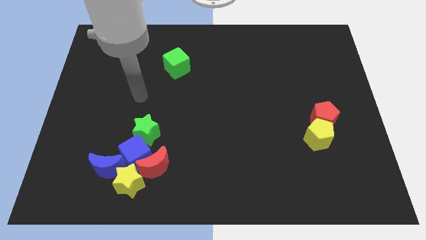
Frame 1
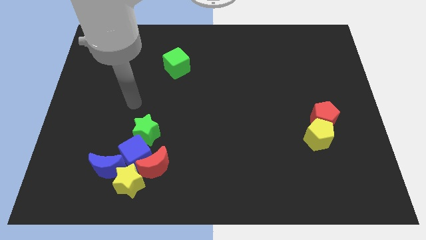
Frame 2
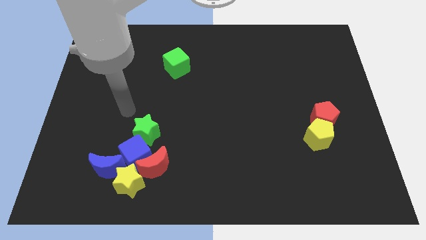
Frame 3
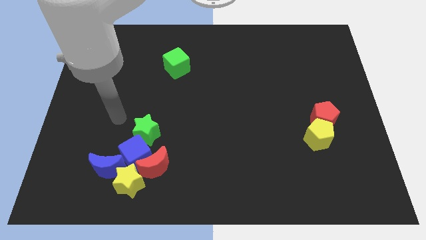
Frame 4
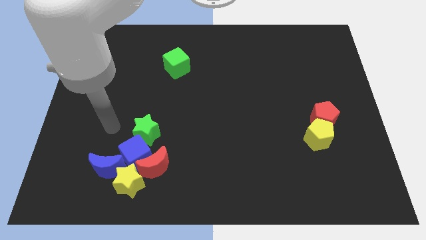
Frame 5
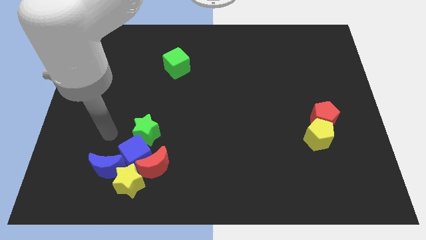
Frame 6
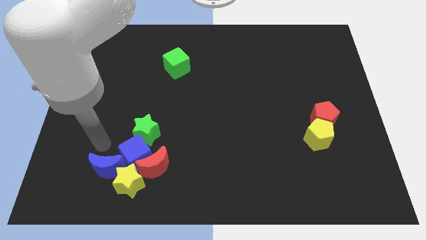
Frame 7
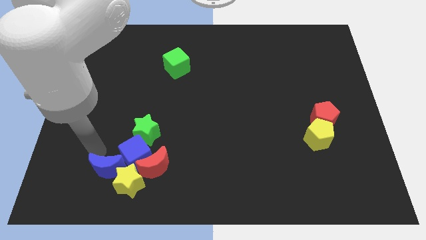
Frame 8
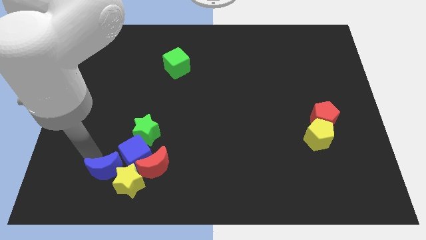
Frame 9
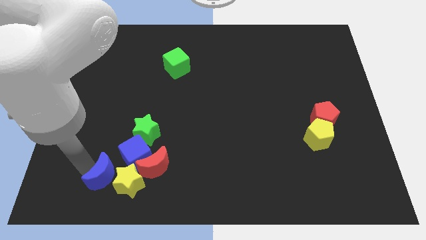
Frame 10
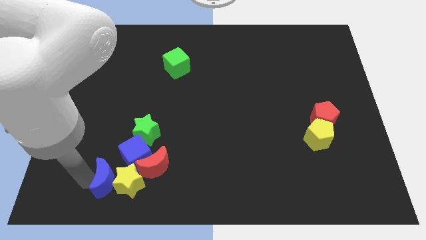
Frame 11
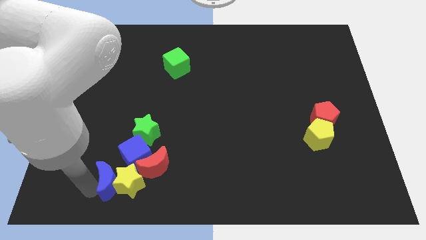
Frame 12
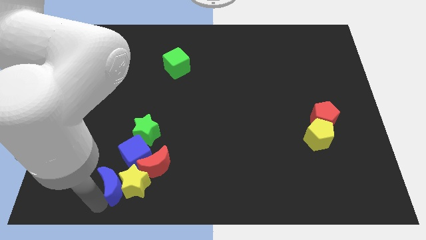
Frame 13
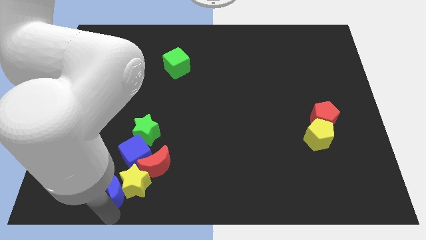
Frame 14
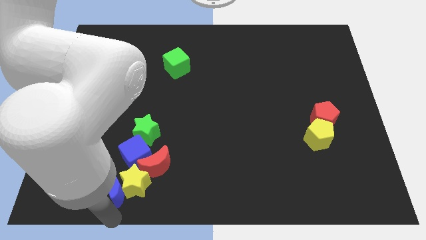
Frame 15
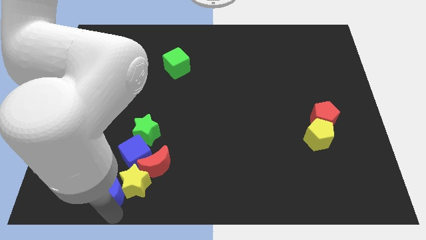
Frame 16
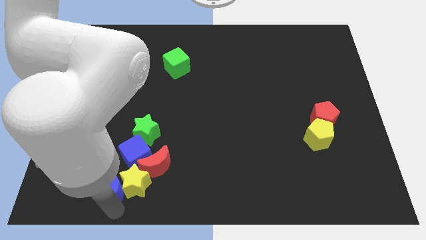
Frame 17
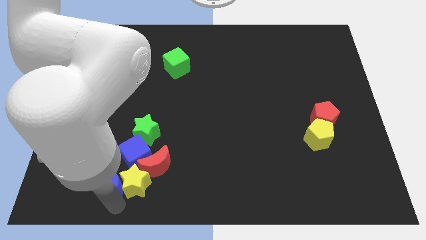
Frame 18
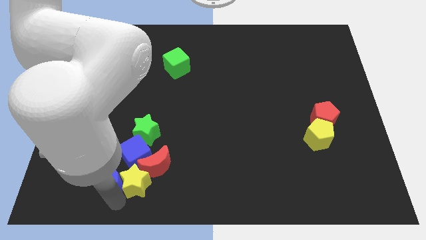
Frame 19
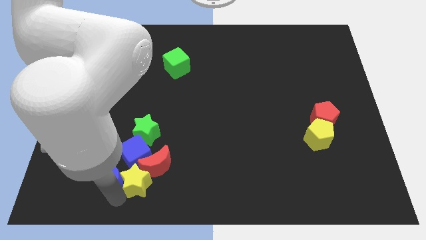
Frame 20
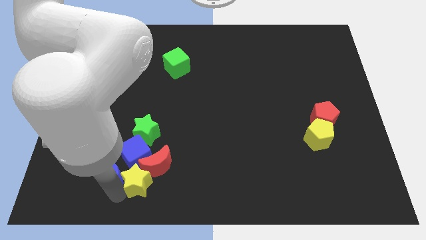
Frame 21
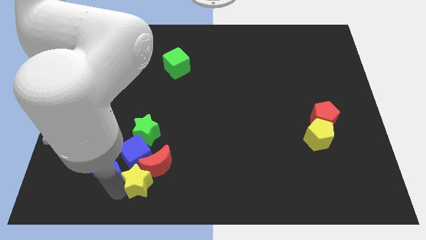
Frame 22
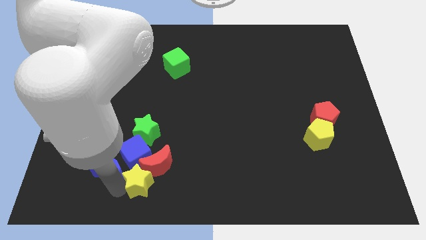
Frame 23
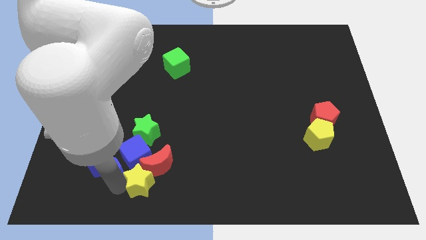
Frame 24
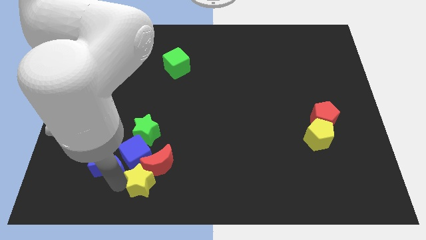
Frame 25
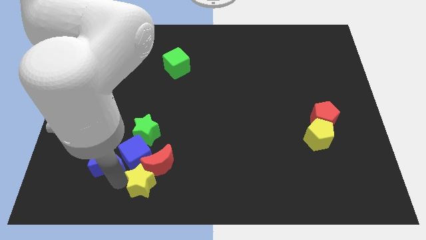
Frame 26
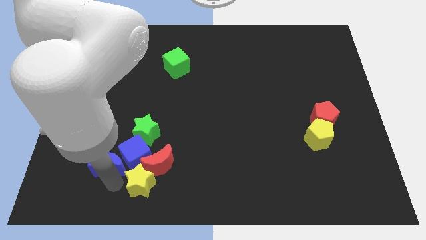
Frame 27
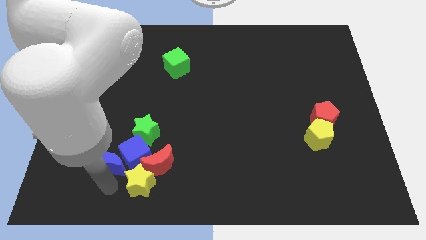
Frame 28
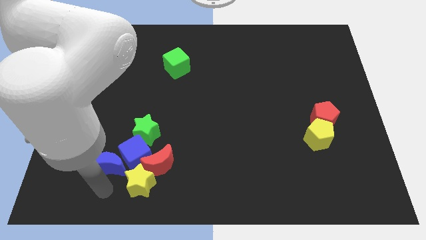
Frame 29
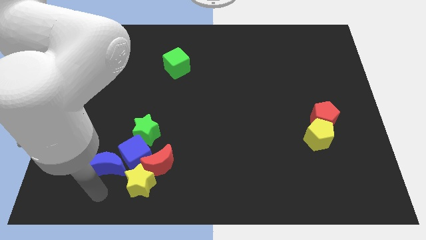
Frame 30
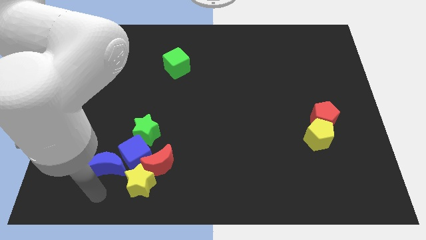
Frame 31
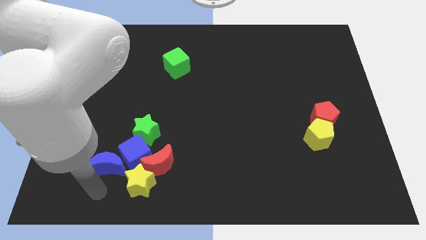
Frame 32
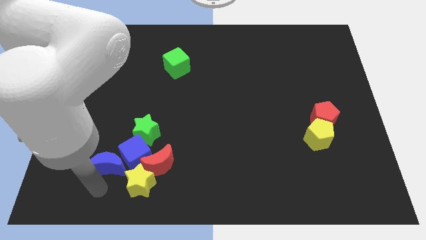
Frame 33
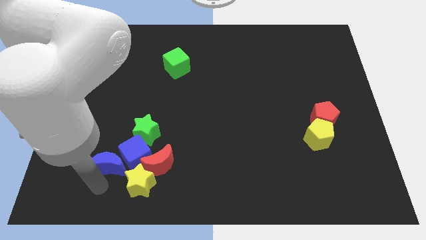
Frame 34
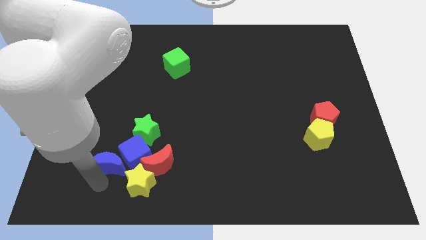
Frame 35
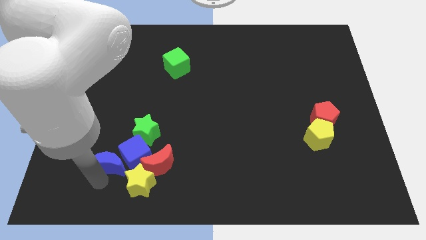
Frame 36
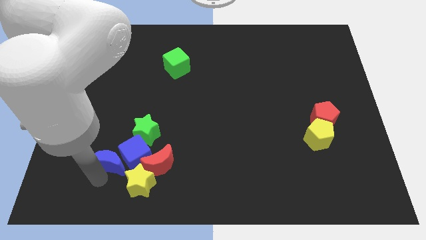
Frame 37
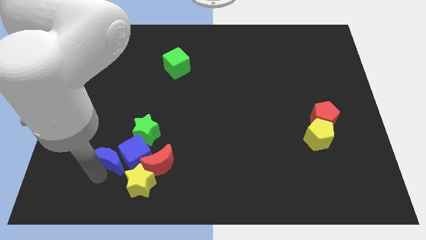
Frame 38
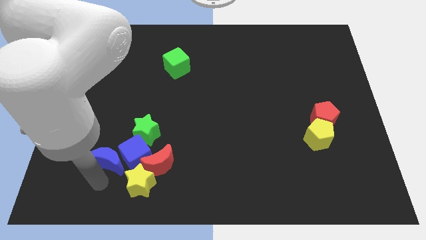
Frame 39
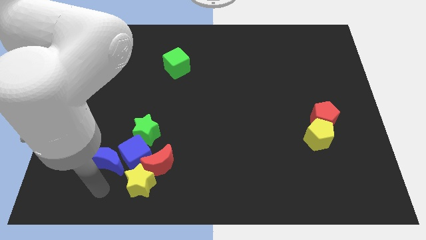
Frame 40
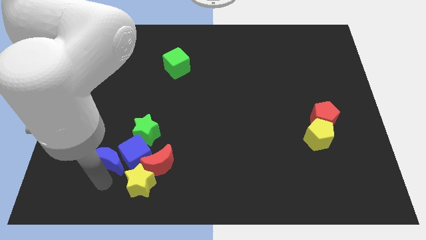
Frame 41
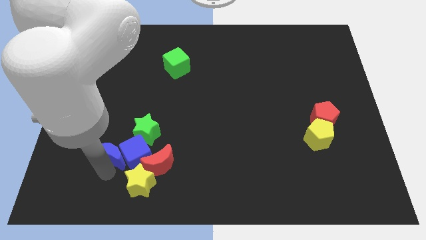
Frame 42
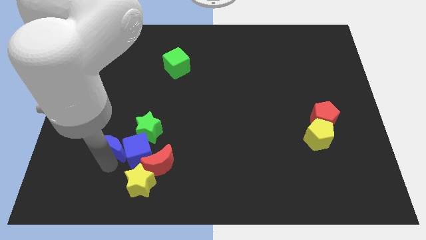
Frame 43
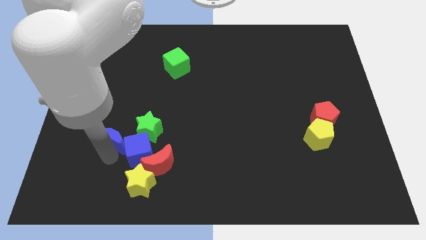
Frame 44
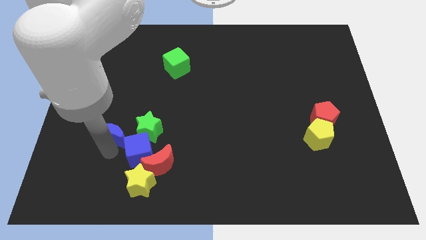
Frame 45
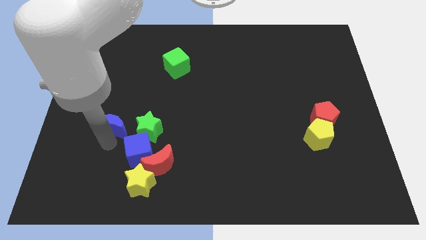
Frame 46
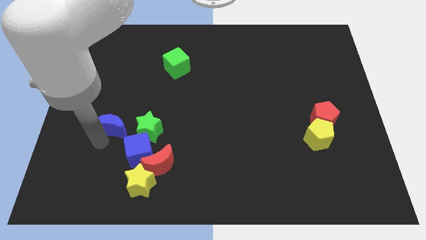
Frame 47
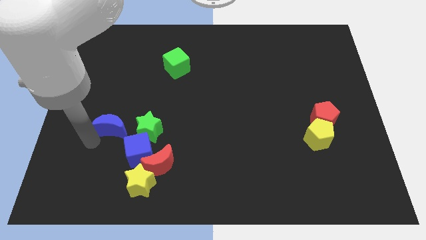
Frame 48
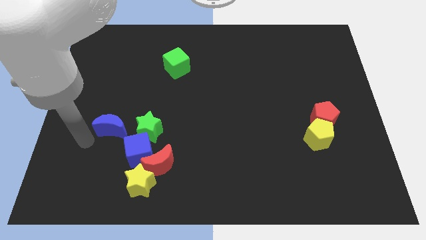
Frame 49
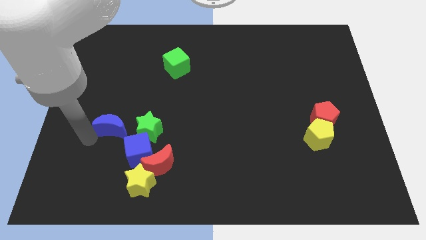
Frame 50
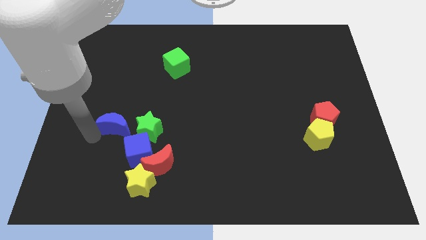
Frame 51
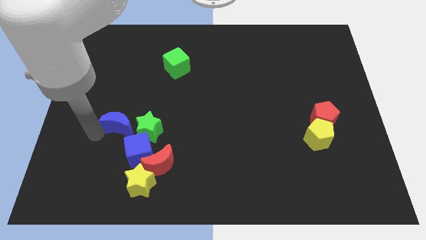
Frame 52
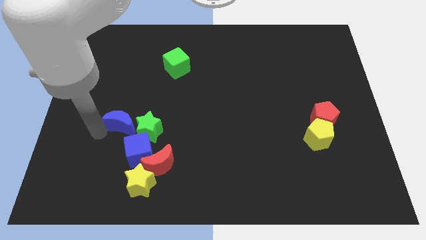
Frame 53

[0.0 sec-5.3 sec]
move the blue moon to the top side of the blue cube

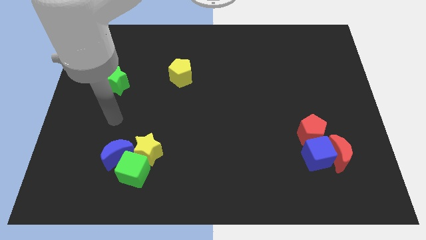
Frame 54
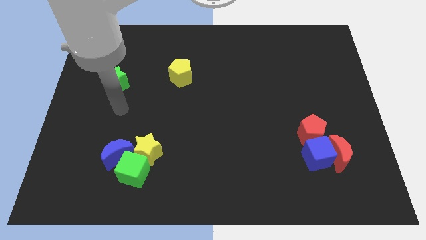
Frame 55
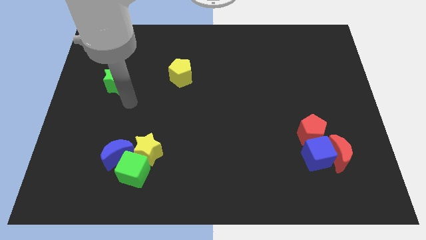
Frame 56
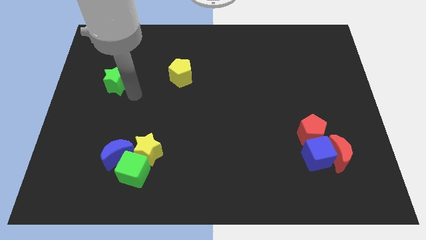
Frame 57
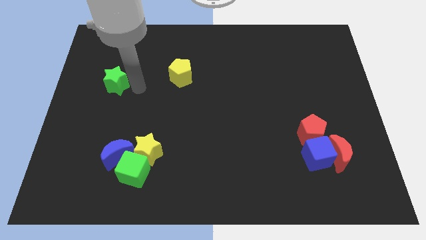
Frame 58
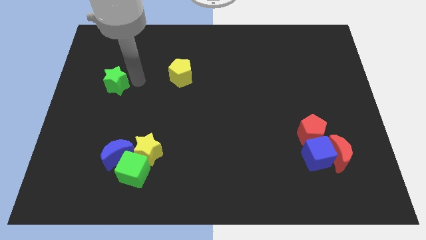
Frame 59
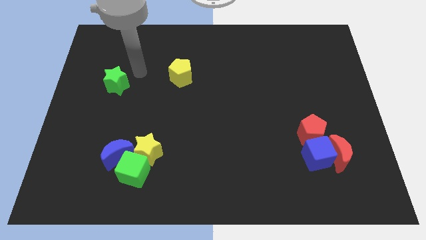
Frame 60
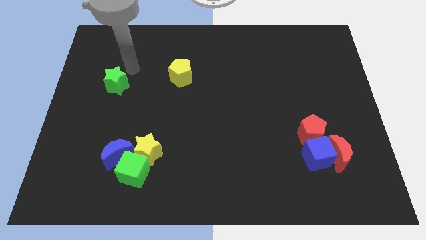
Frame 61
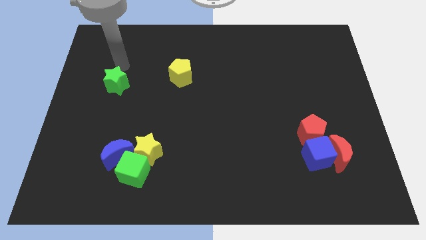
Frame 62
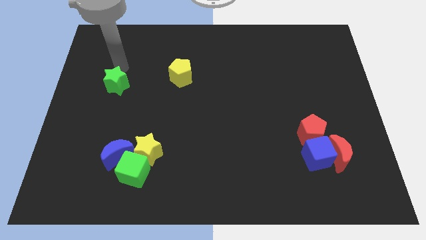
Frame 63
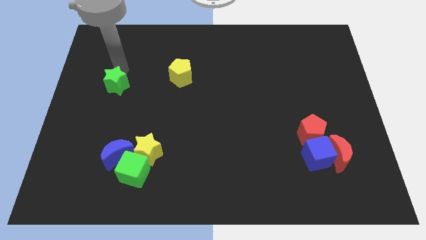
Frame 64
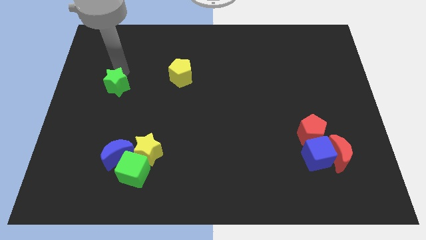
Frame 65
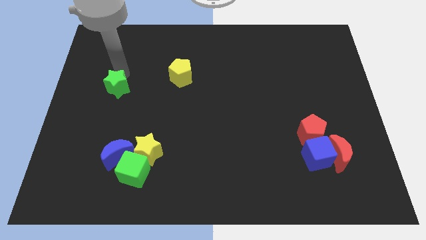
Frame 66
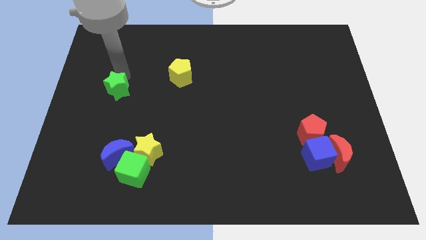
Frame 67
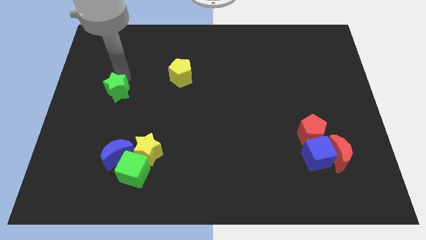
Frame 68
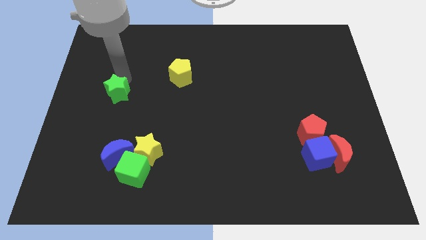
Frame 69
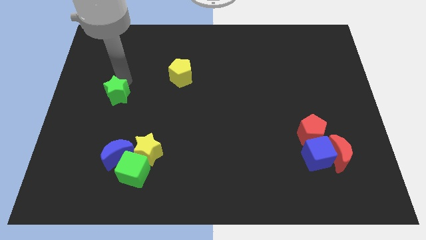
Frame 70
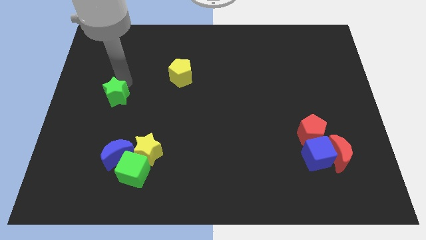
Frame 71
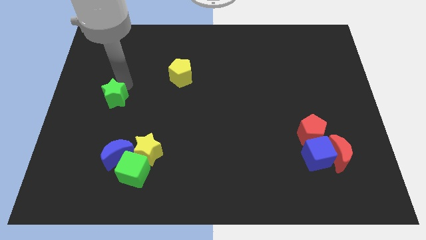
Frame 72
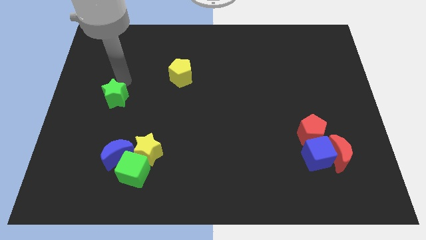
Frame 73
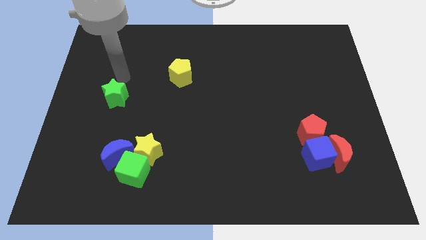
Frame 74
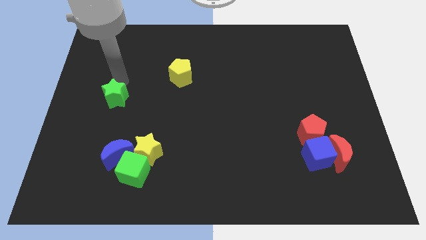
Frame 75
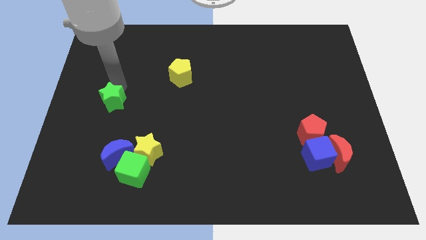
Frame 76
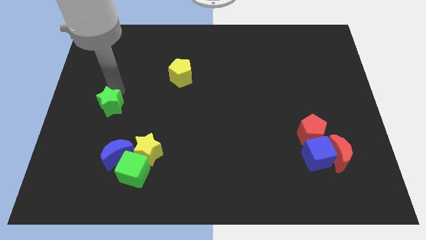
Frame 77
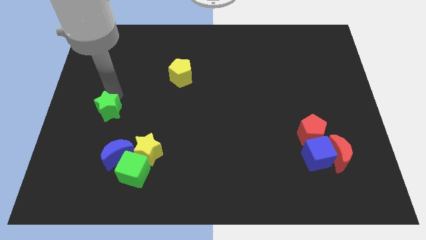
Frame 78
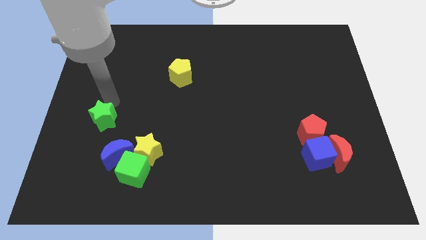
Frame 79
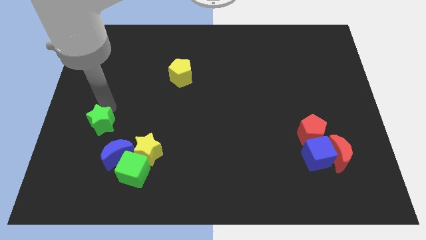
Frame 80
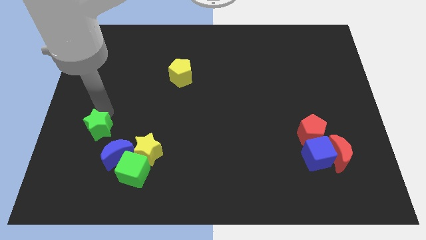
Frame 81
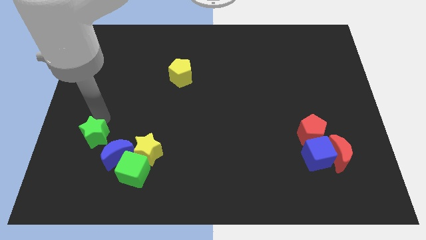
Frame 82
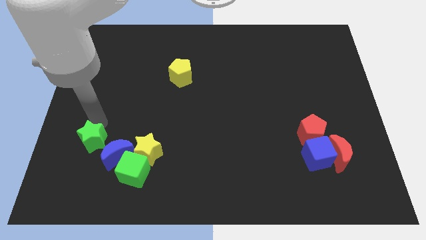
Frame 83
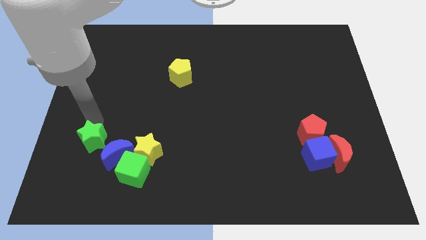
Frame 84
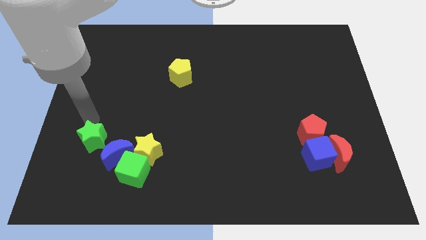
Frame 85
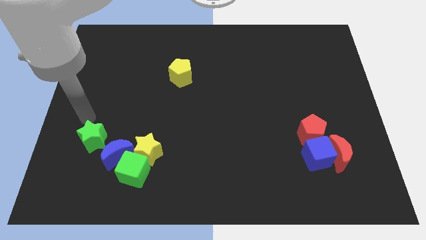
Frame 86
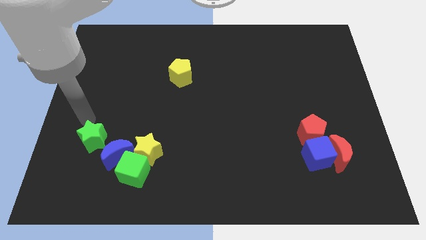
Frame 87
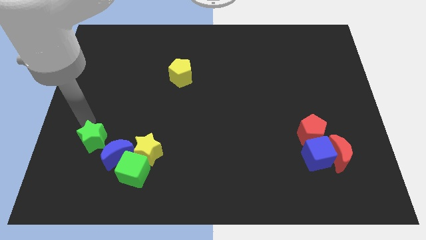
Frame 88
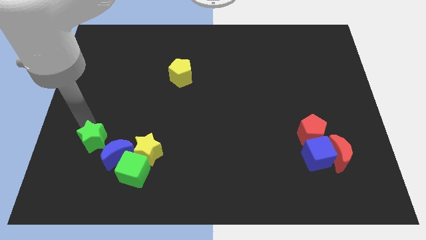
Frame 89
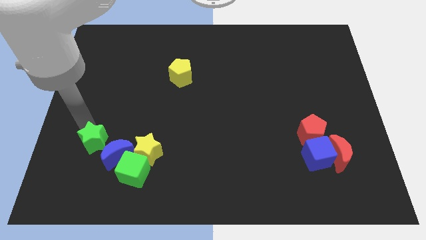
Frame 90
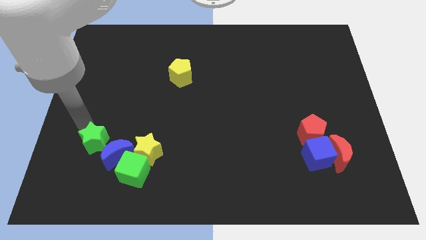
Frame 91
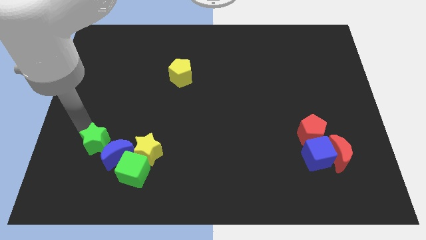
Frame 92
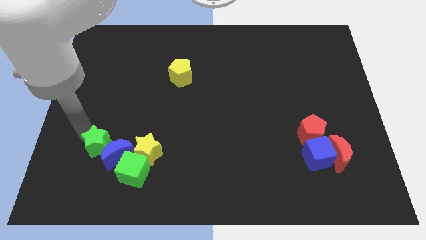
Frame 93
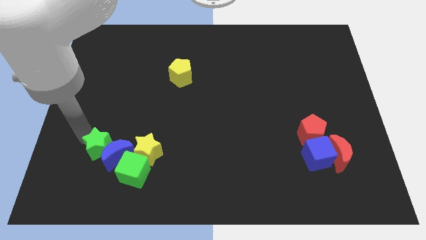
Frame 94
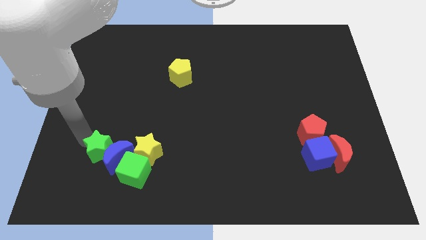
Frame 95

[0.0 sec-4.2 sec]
push the green star diagonally down and to the left of the blue moon
